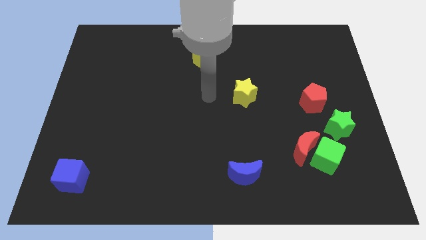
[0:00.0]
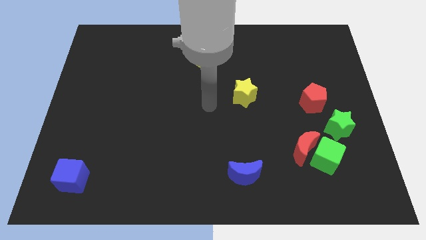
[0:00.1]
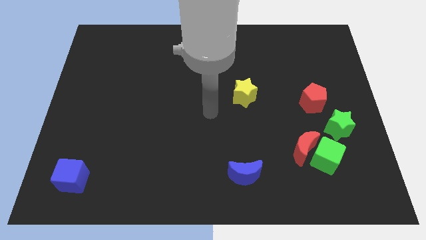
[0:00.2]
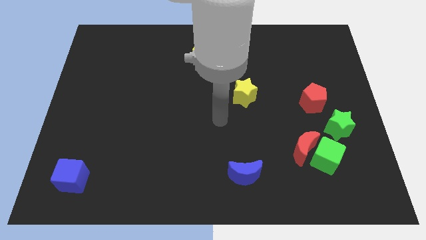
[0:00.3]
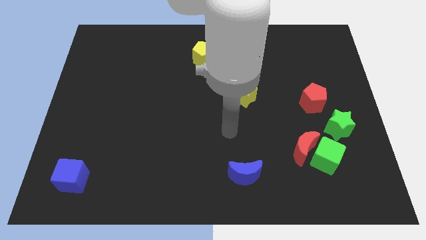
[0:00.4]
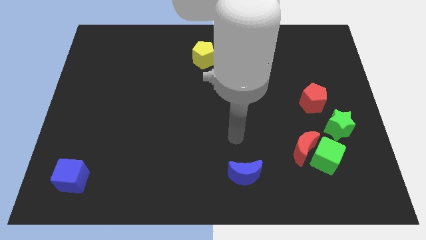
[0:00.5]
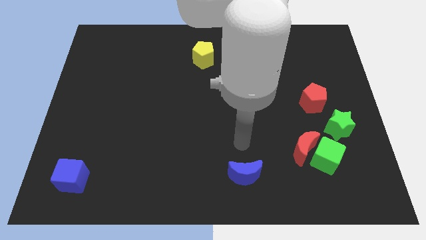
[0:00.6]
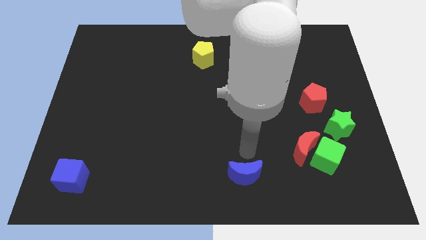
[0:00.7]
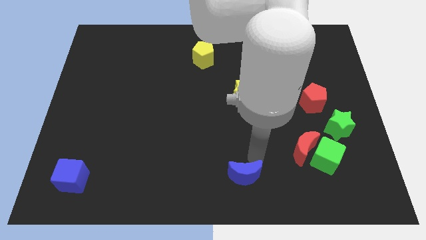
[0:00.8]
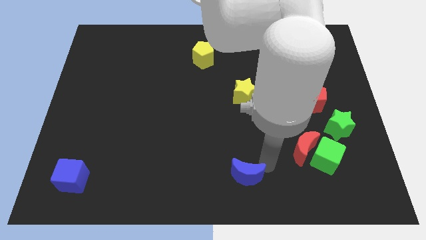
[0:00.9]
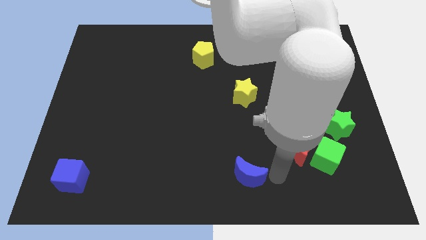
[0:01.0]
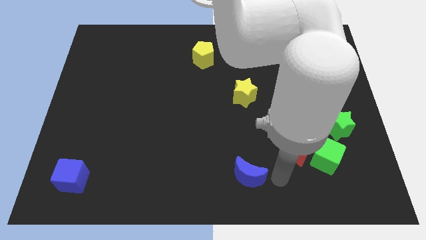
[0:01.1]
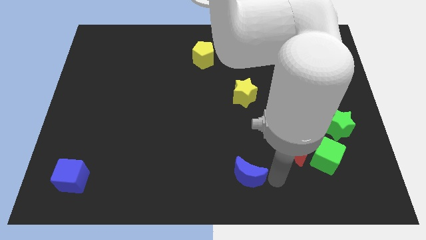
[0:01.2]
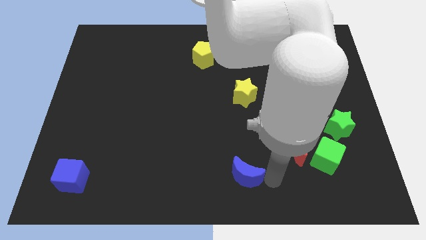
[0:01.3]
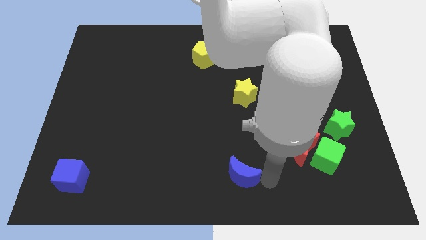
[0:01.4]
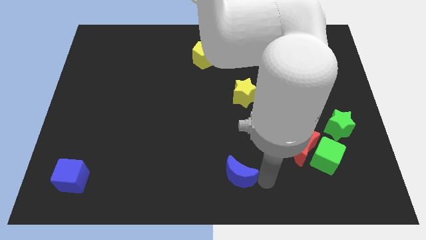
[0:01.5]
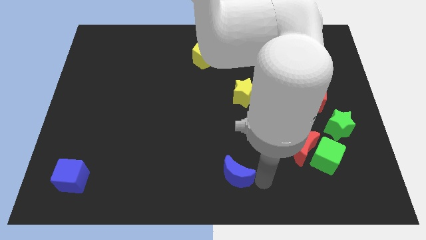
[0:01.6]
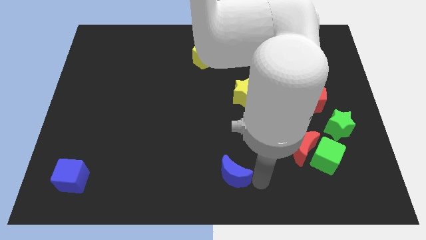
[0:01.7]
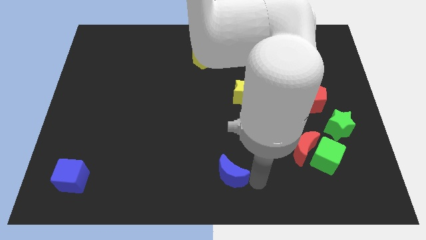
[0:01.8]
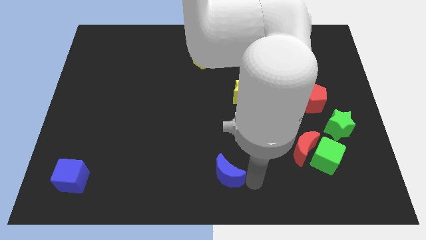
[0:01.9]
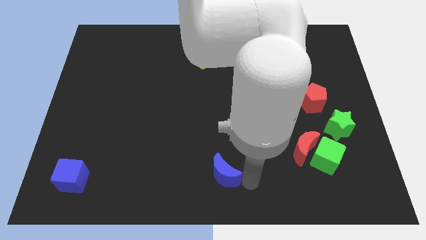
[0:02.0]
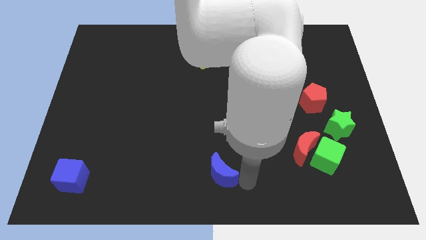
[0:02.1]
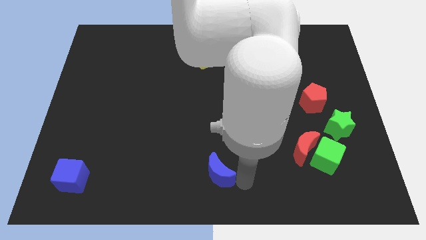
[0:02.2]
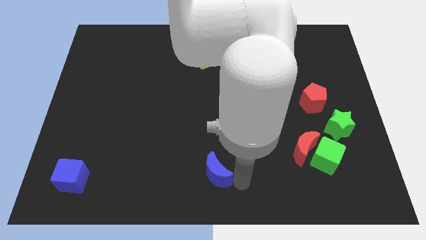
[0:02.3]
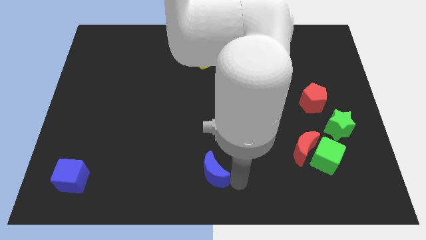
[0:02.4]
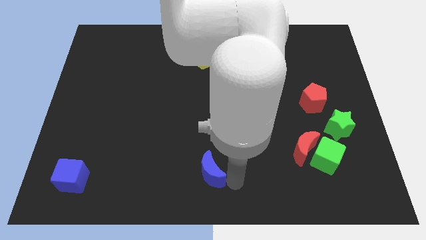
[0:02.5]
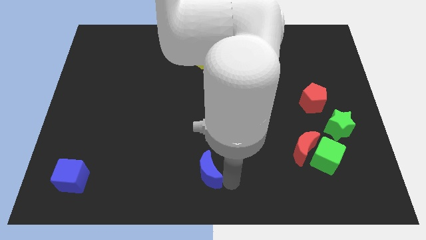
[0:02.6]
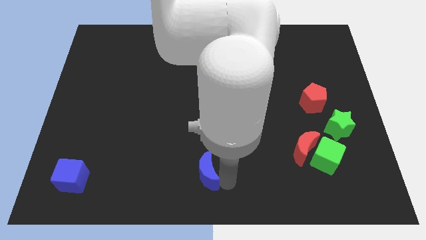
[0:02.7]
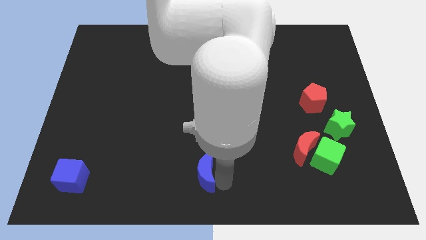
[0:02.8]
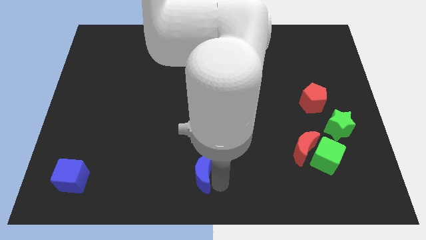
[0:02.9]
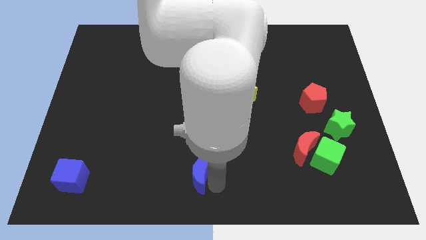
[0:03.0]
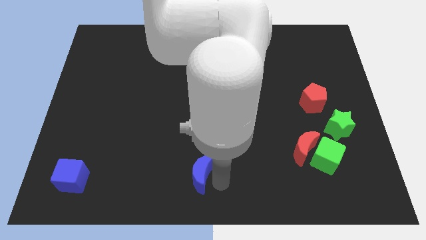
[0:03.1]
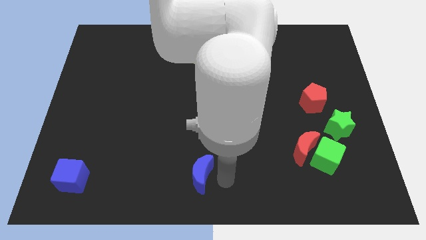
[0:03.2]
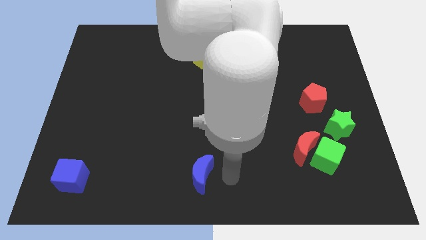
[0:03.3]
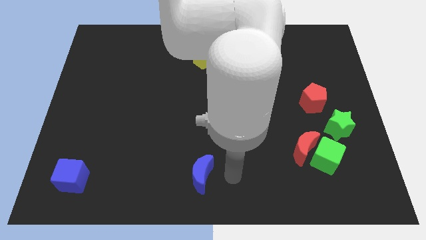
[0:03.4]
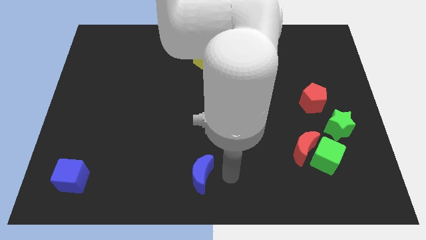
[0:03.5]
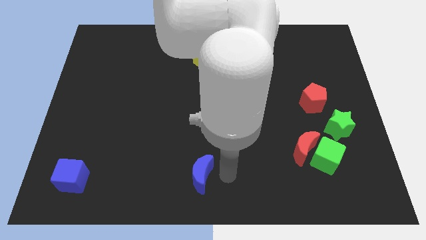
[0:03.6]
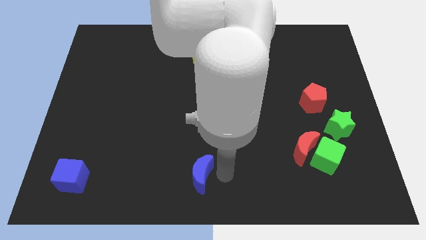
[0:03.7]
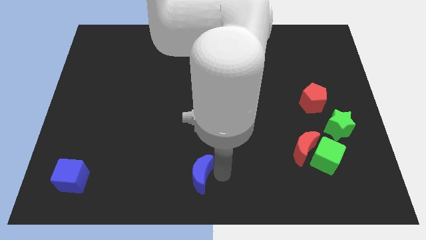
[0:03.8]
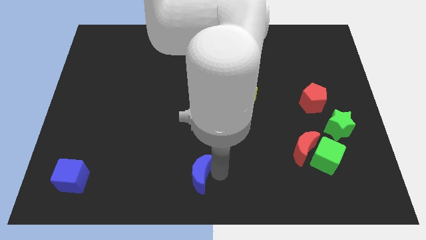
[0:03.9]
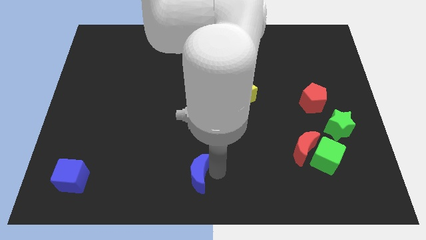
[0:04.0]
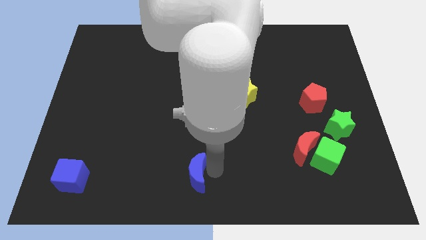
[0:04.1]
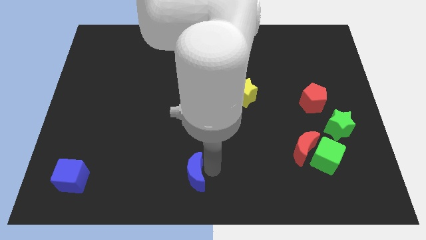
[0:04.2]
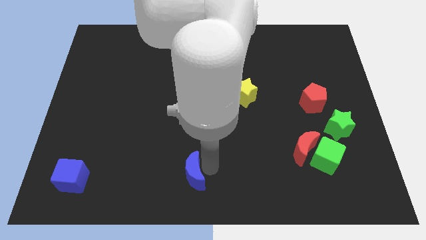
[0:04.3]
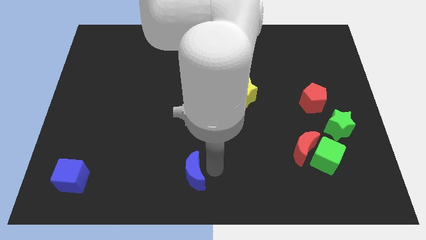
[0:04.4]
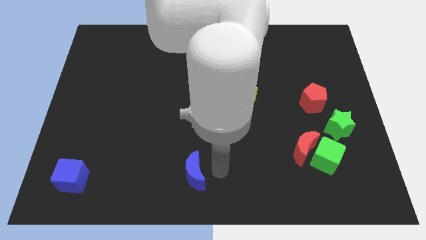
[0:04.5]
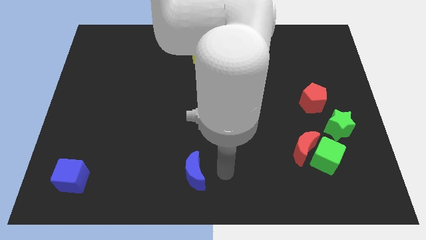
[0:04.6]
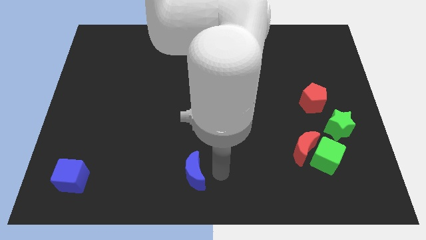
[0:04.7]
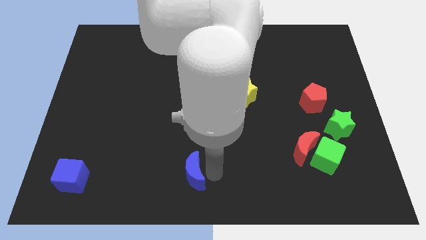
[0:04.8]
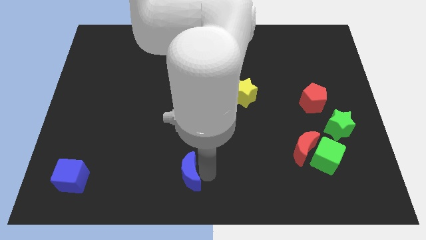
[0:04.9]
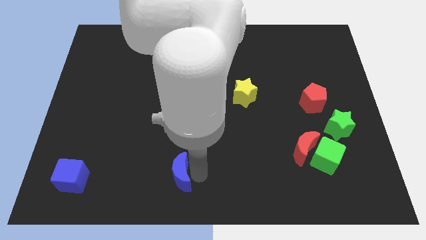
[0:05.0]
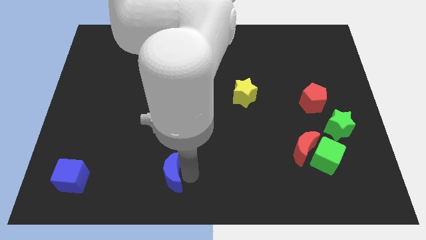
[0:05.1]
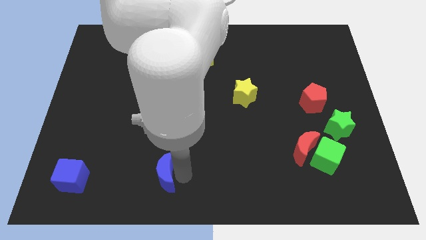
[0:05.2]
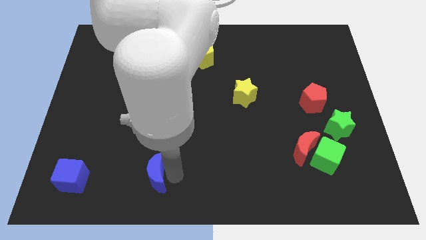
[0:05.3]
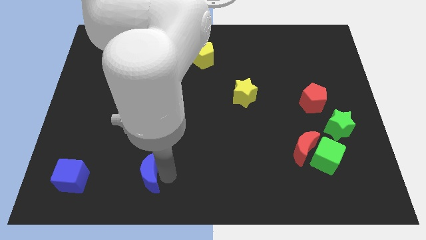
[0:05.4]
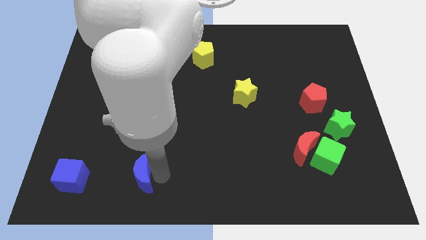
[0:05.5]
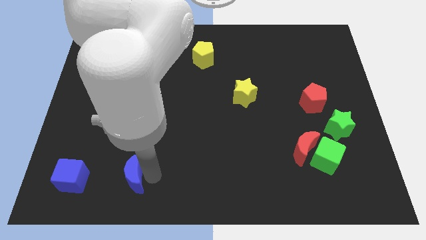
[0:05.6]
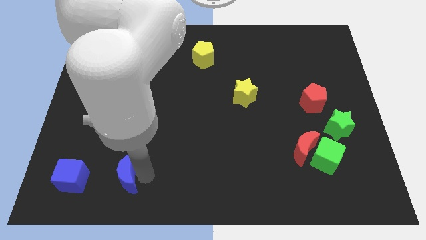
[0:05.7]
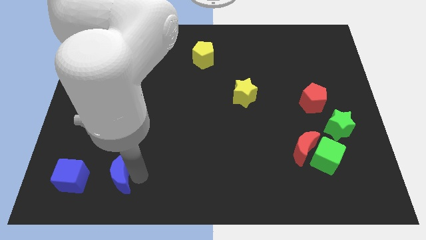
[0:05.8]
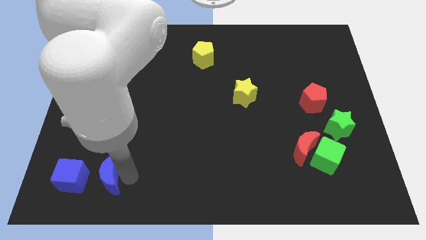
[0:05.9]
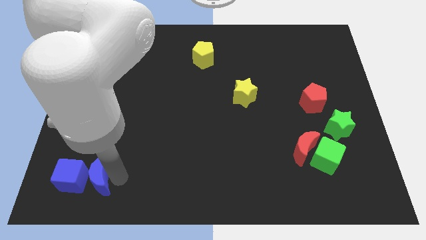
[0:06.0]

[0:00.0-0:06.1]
push the blue moon towards the blue cube
